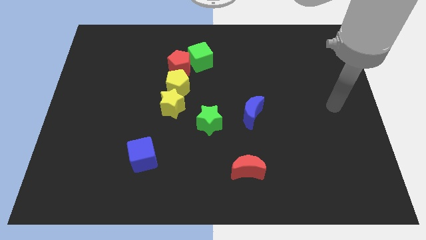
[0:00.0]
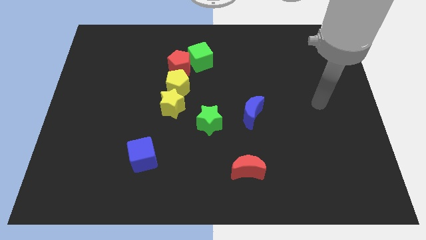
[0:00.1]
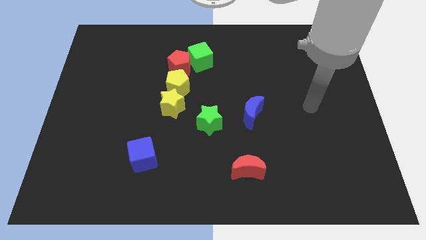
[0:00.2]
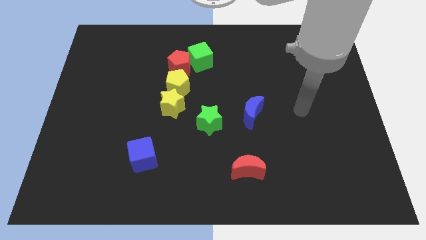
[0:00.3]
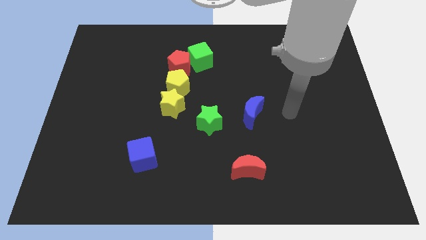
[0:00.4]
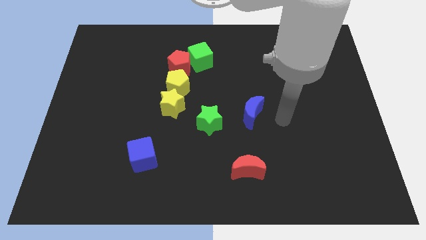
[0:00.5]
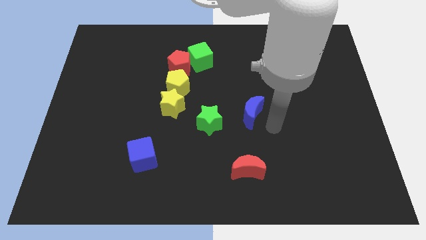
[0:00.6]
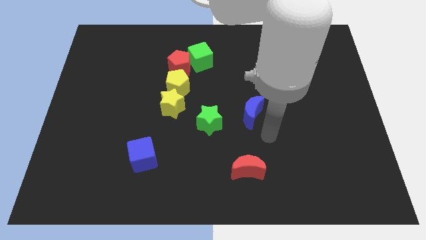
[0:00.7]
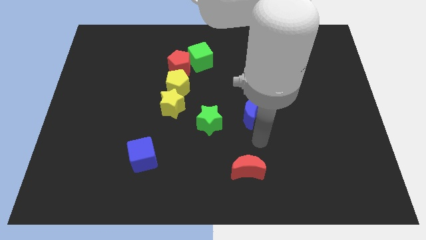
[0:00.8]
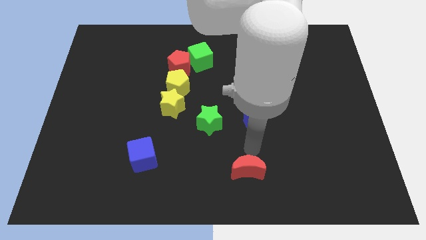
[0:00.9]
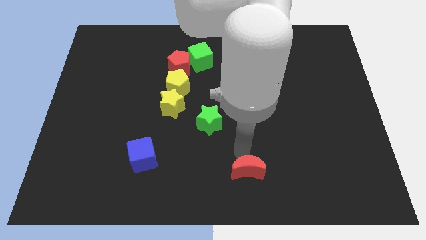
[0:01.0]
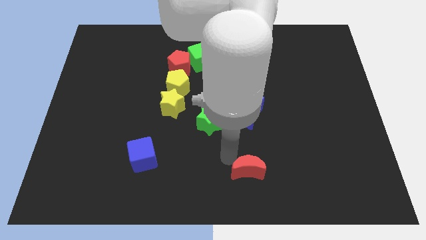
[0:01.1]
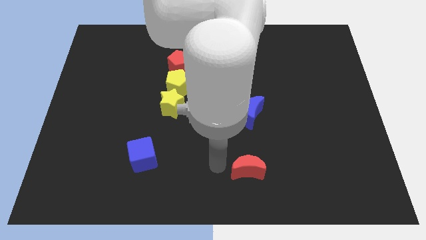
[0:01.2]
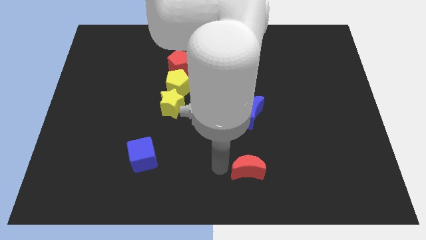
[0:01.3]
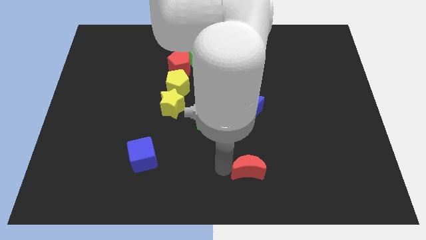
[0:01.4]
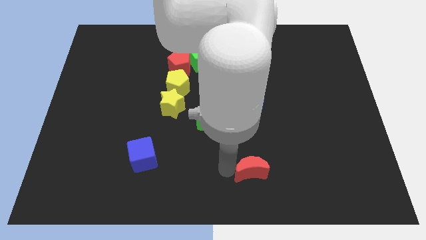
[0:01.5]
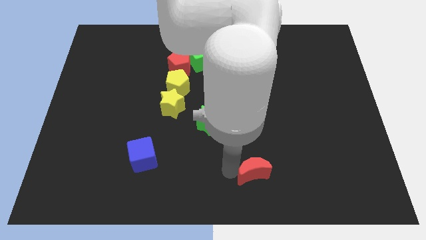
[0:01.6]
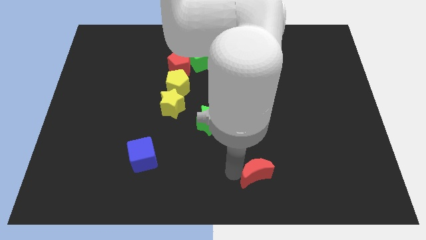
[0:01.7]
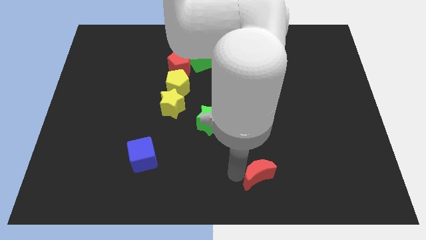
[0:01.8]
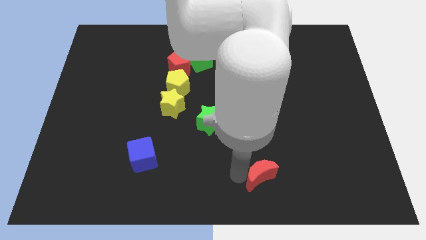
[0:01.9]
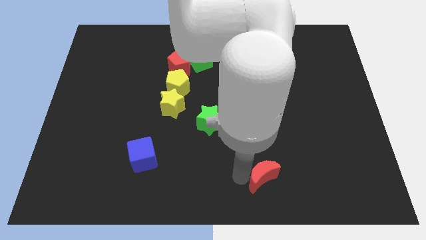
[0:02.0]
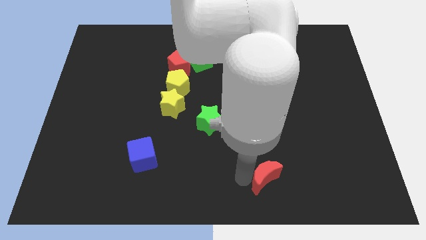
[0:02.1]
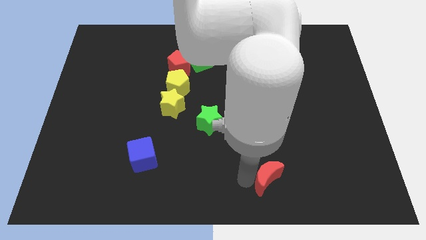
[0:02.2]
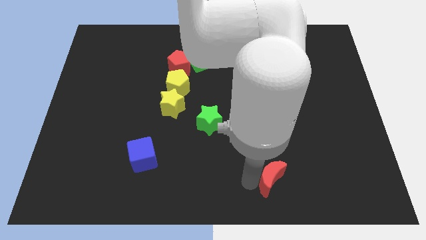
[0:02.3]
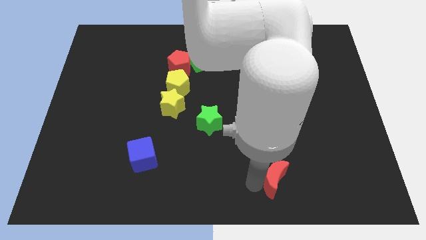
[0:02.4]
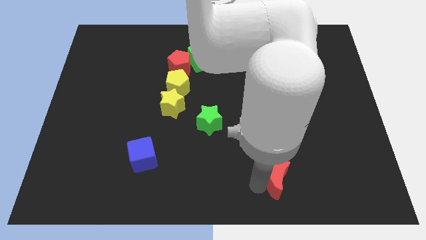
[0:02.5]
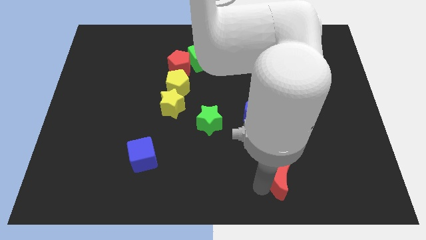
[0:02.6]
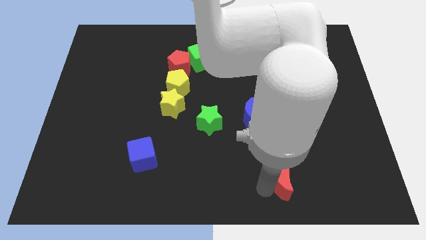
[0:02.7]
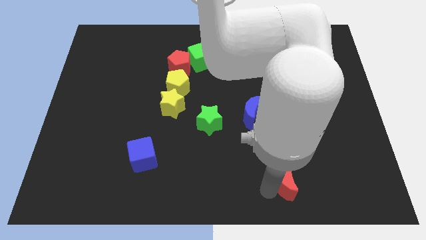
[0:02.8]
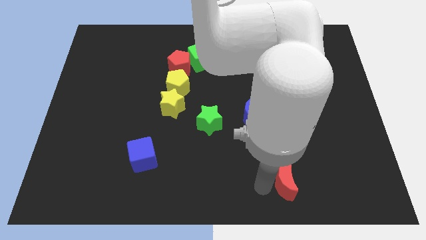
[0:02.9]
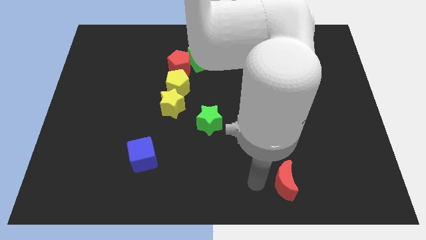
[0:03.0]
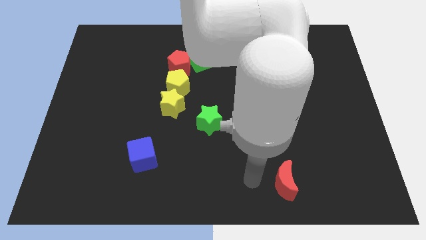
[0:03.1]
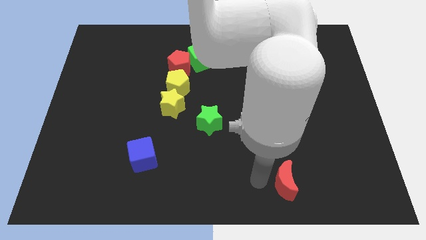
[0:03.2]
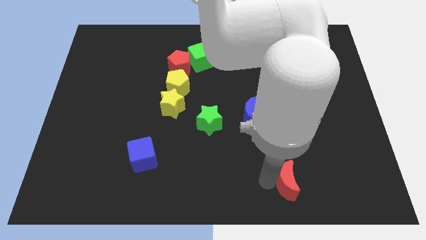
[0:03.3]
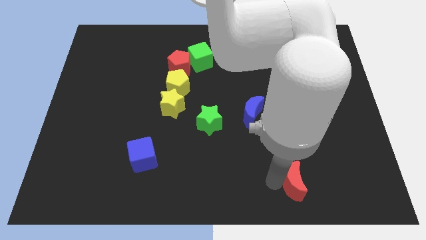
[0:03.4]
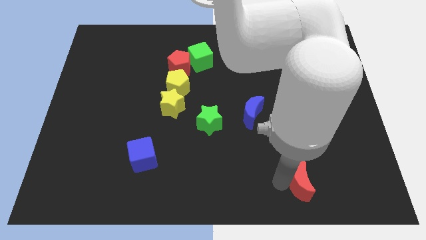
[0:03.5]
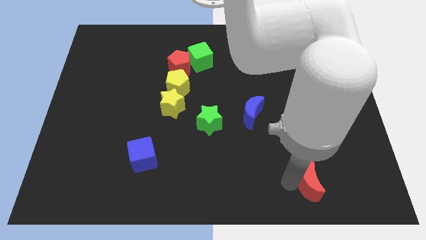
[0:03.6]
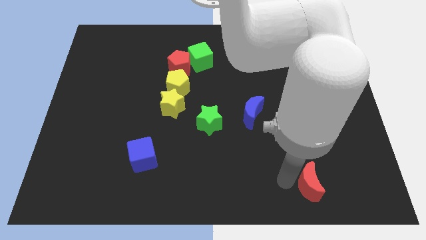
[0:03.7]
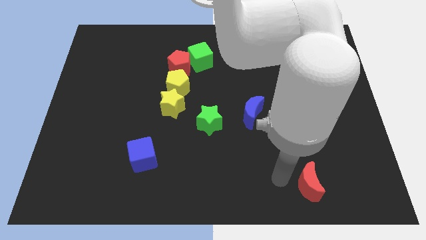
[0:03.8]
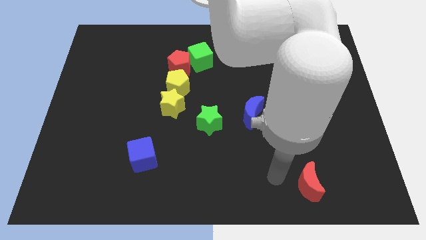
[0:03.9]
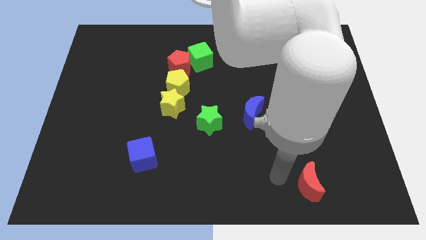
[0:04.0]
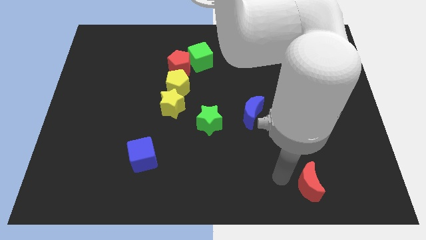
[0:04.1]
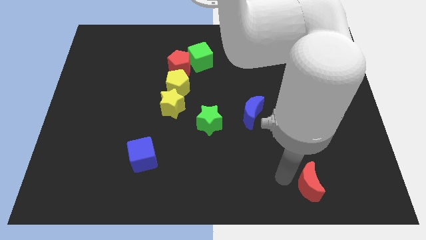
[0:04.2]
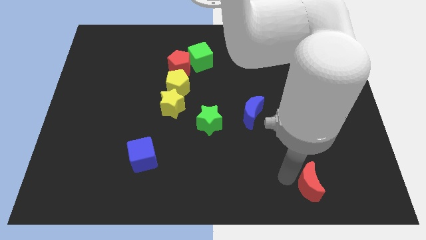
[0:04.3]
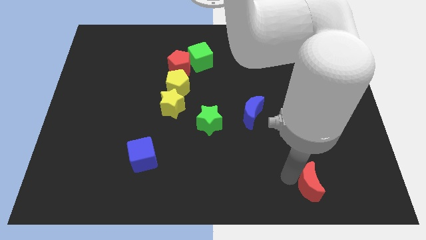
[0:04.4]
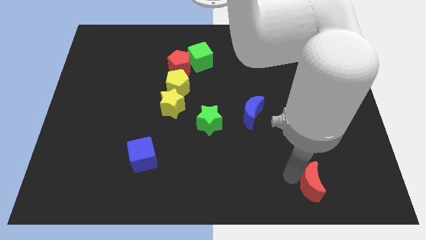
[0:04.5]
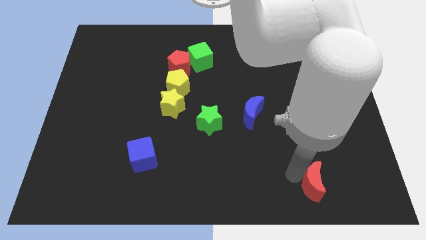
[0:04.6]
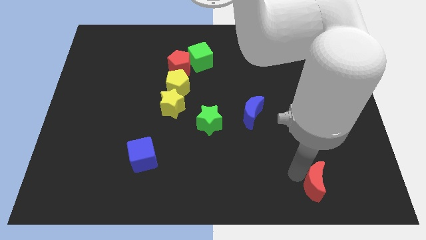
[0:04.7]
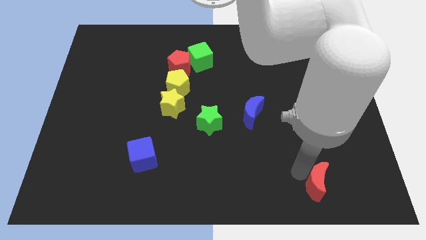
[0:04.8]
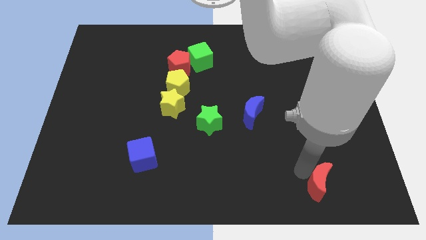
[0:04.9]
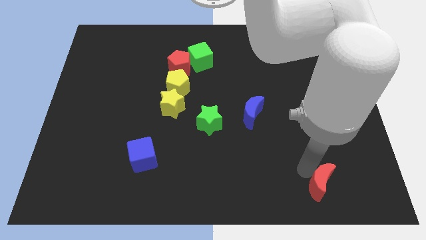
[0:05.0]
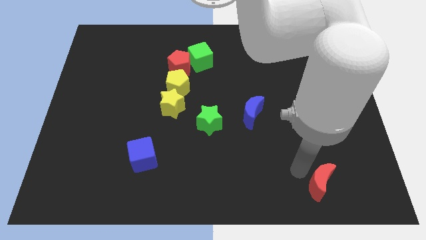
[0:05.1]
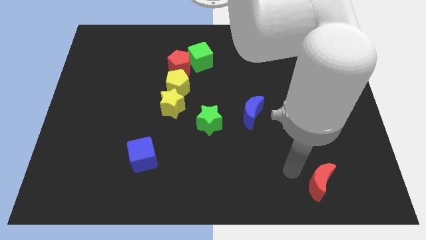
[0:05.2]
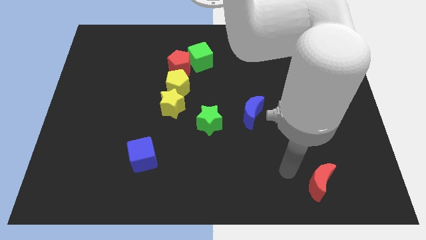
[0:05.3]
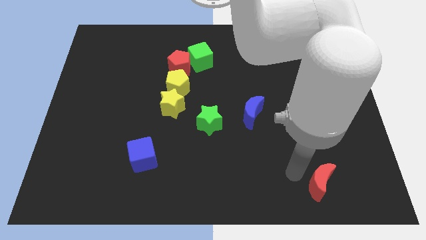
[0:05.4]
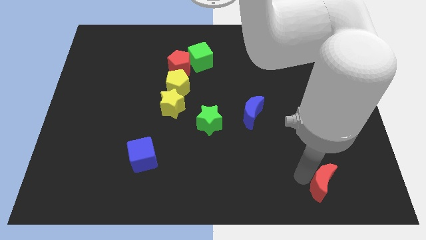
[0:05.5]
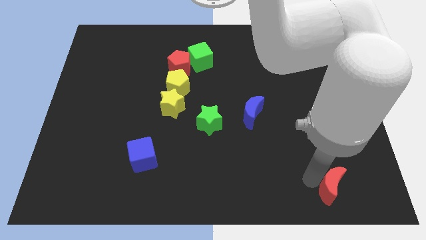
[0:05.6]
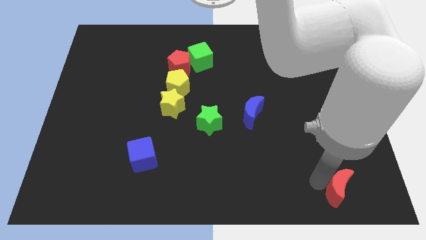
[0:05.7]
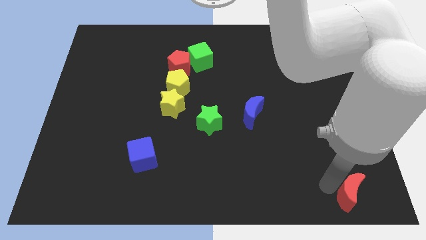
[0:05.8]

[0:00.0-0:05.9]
slide the red moon to the bottom right
